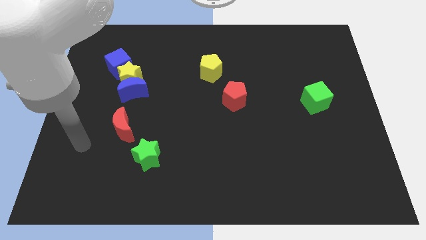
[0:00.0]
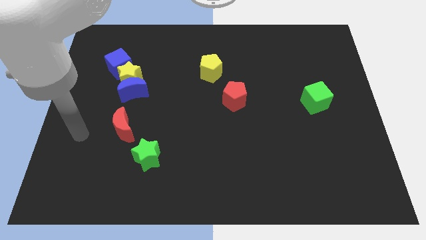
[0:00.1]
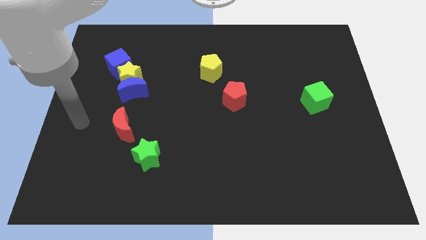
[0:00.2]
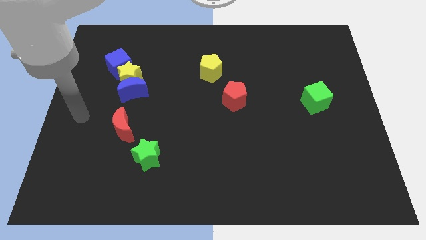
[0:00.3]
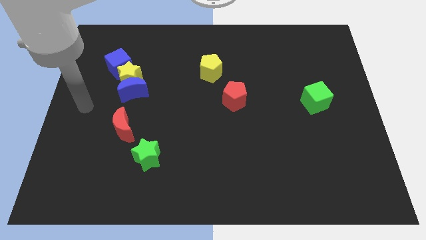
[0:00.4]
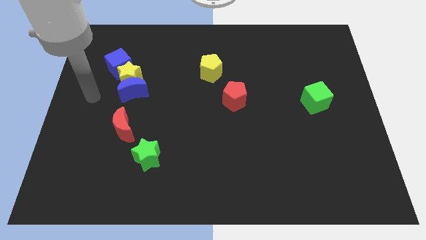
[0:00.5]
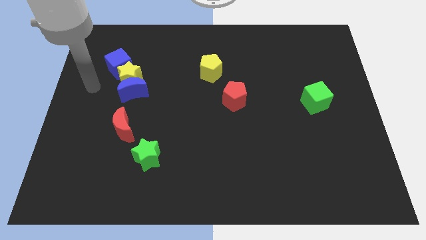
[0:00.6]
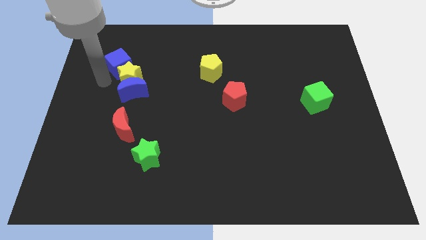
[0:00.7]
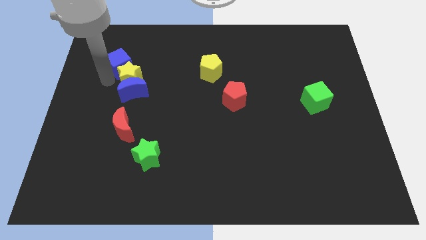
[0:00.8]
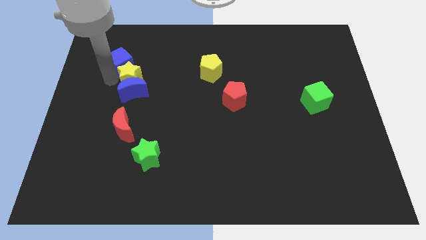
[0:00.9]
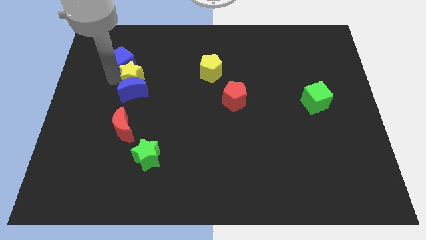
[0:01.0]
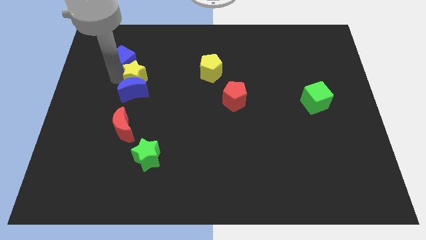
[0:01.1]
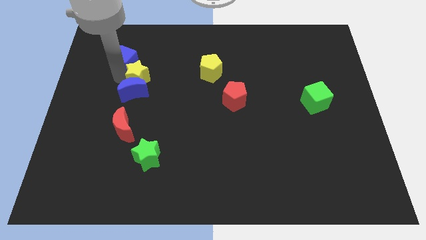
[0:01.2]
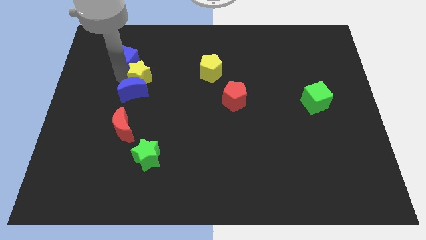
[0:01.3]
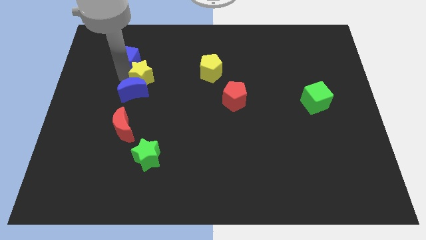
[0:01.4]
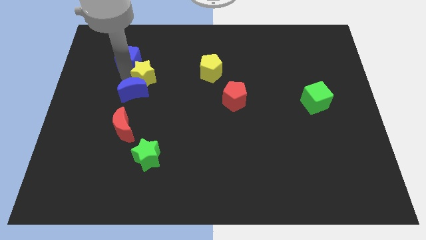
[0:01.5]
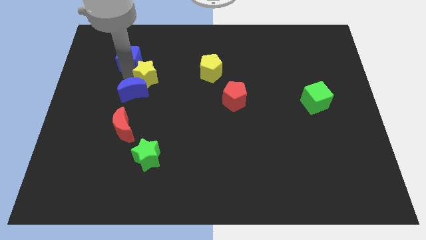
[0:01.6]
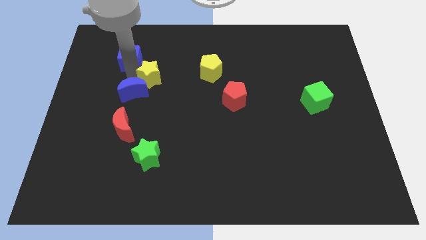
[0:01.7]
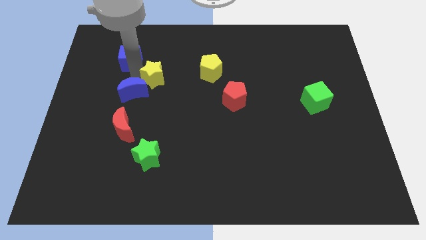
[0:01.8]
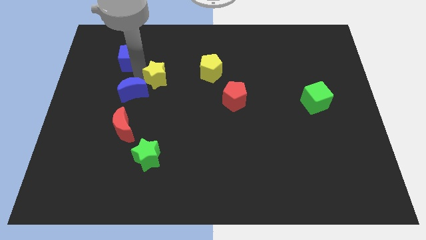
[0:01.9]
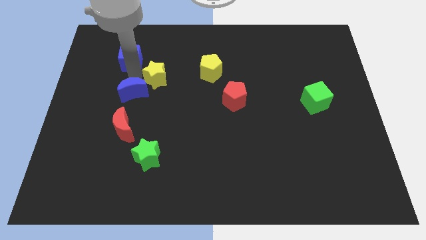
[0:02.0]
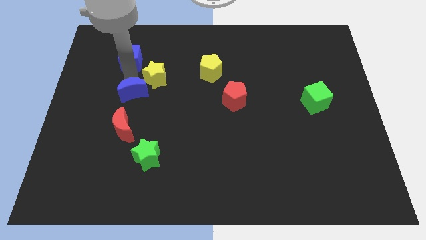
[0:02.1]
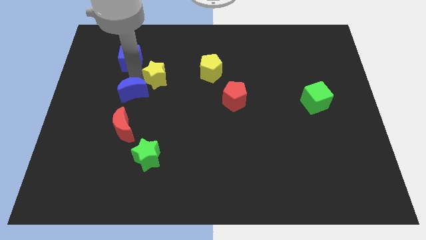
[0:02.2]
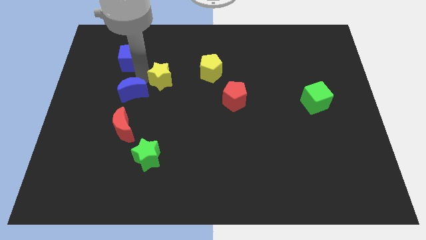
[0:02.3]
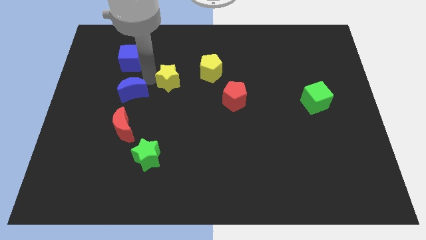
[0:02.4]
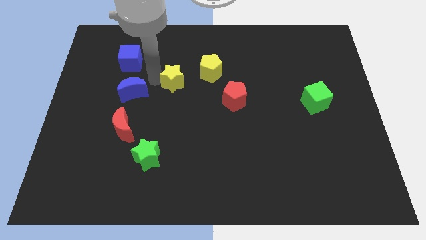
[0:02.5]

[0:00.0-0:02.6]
separate the yellow star from the blue moon and blue cube

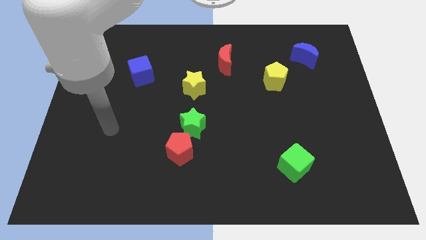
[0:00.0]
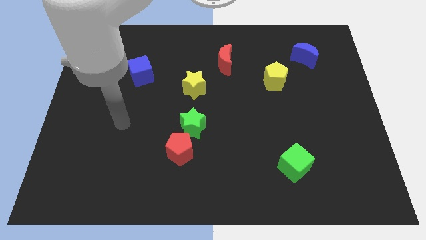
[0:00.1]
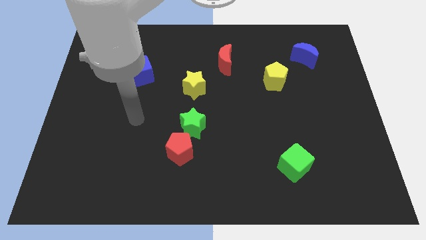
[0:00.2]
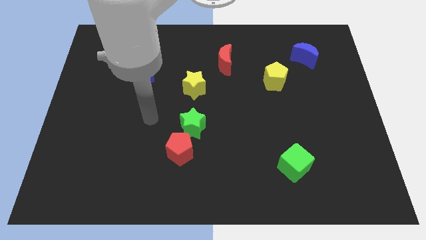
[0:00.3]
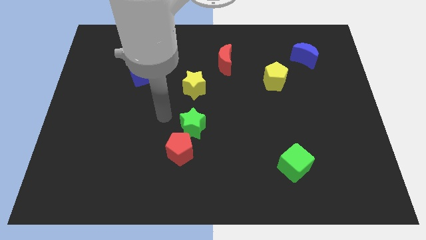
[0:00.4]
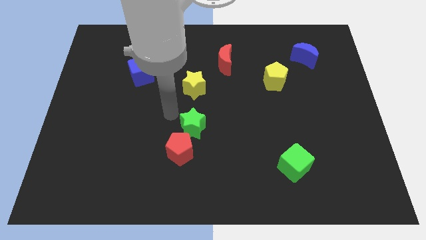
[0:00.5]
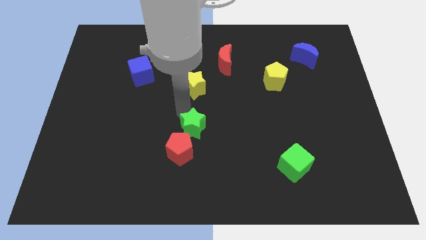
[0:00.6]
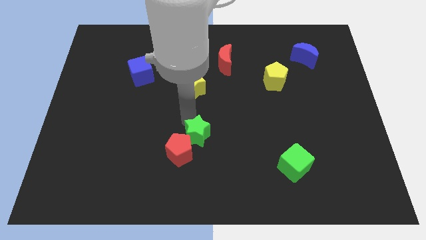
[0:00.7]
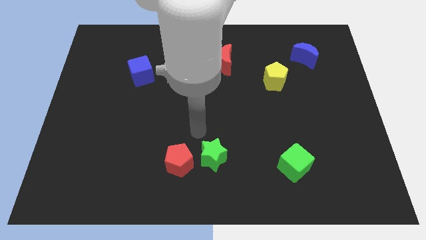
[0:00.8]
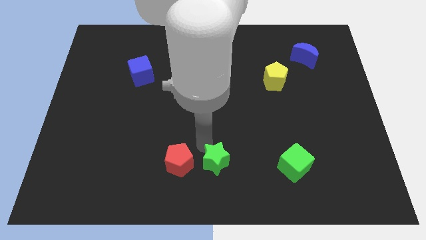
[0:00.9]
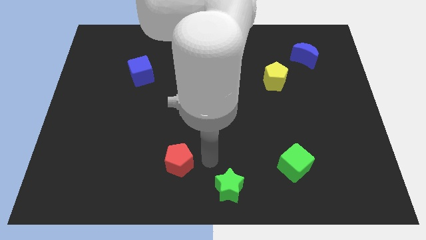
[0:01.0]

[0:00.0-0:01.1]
separate the red pentagon from the green star

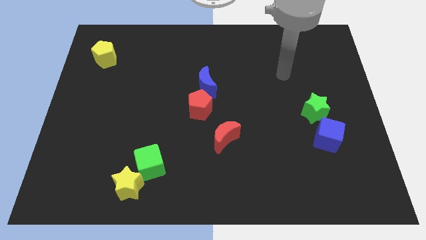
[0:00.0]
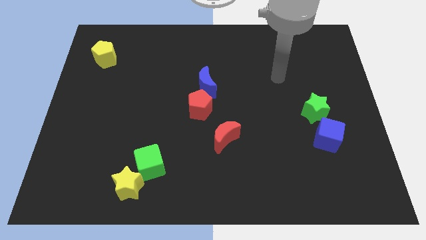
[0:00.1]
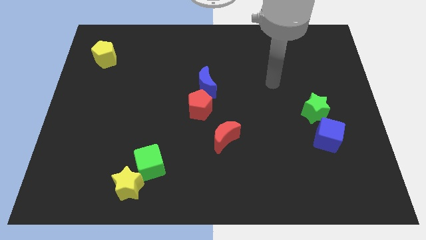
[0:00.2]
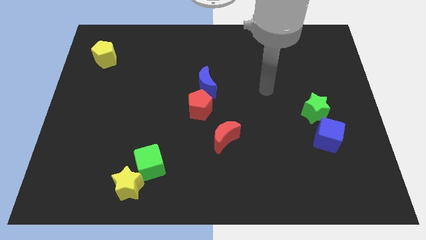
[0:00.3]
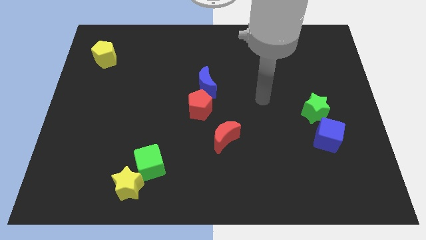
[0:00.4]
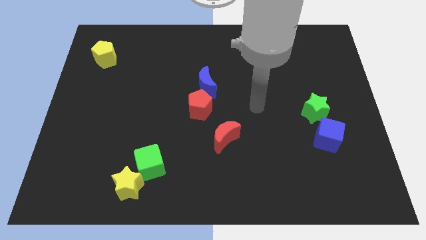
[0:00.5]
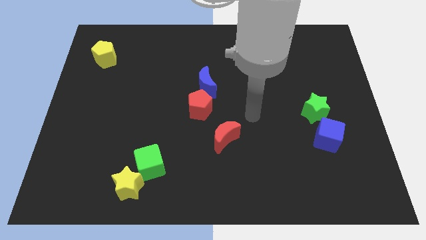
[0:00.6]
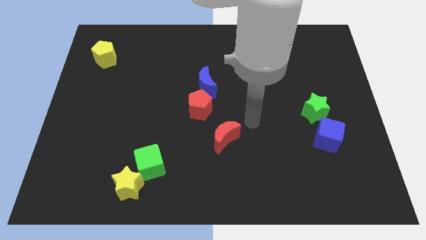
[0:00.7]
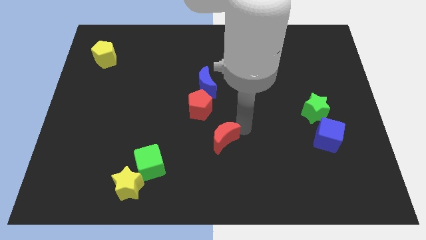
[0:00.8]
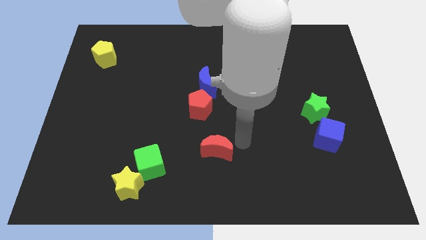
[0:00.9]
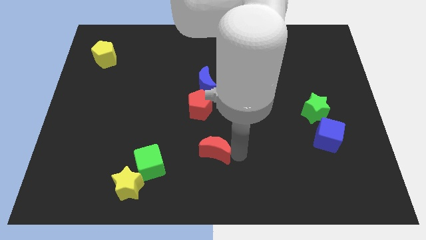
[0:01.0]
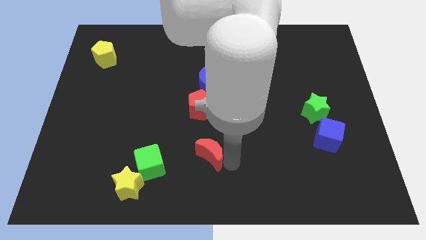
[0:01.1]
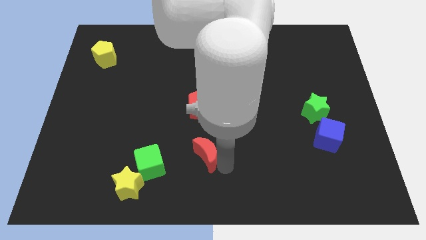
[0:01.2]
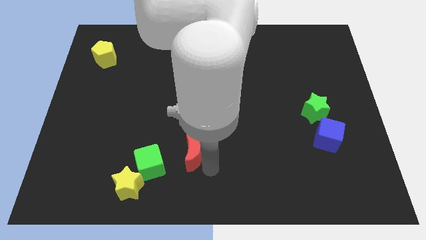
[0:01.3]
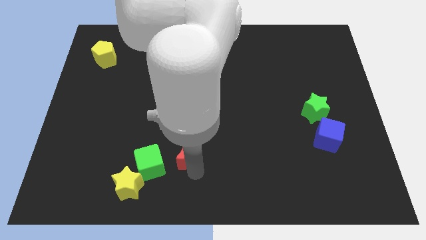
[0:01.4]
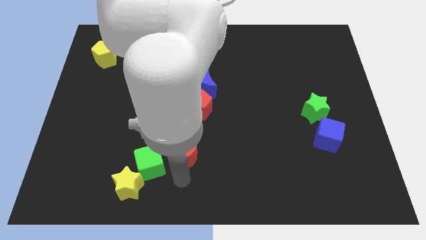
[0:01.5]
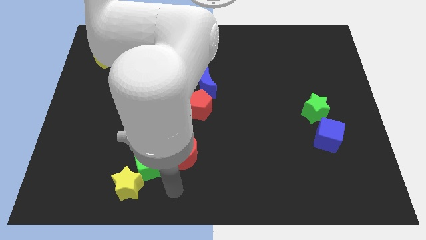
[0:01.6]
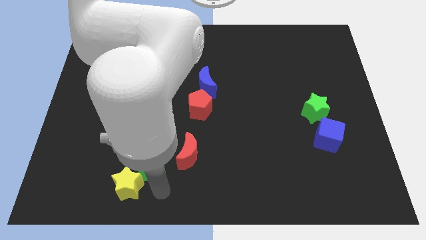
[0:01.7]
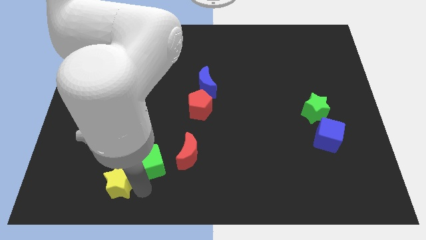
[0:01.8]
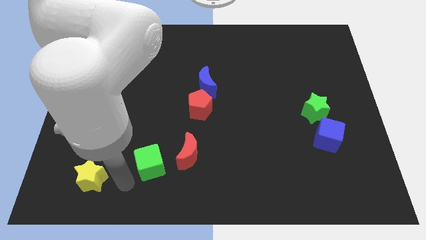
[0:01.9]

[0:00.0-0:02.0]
move the green cube away from the yellow star

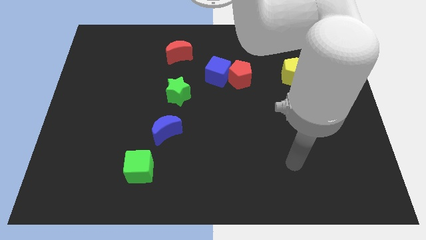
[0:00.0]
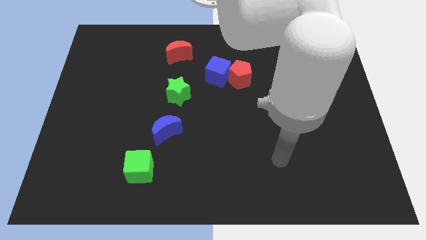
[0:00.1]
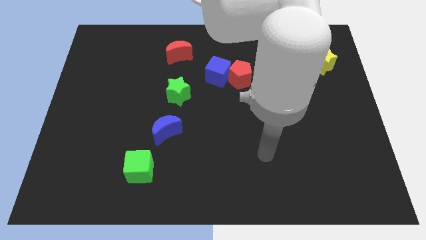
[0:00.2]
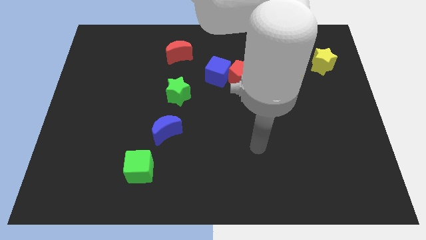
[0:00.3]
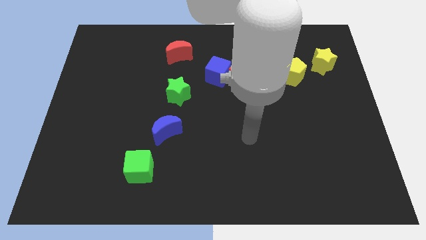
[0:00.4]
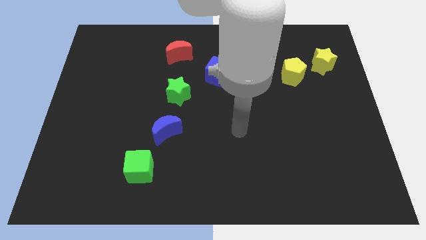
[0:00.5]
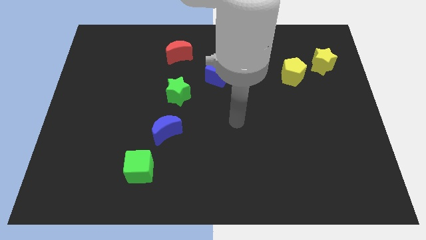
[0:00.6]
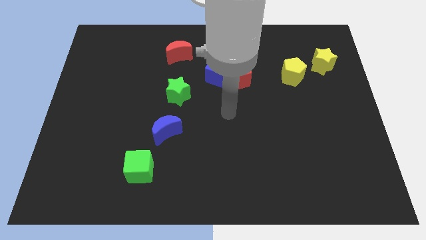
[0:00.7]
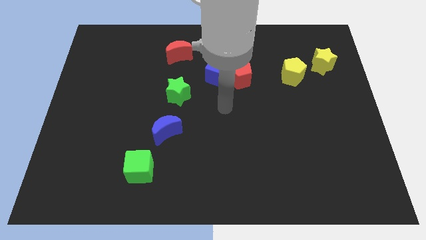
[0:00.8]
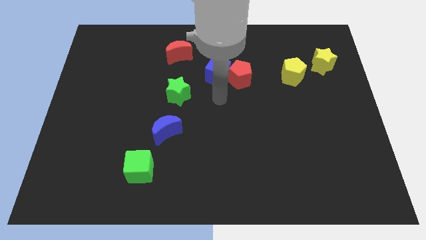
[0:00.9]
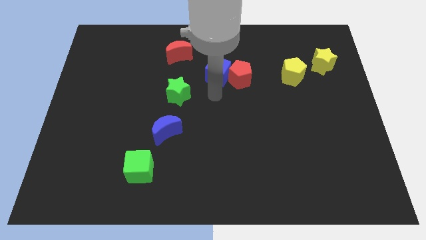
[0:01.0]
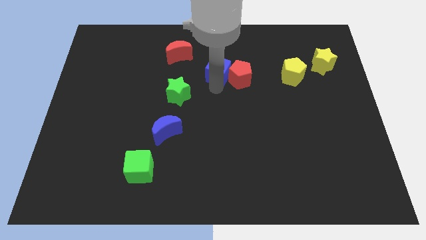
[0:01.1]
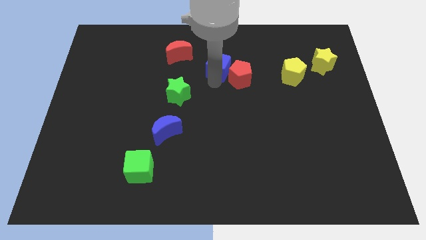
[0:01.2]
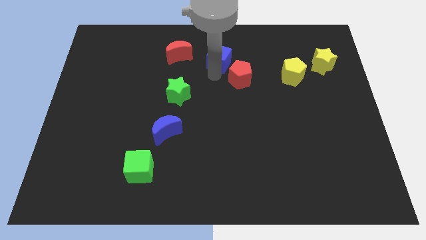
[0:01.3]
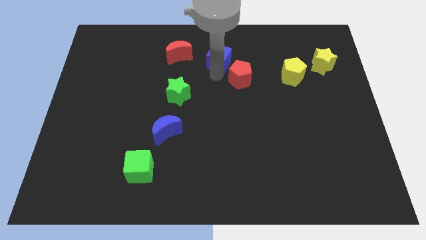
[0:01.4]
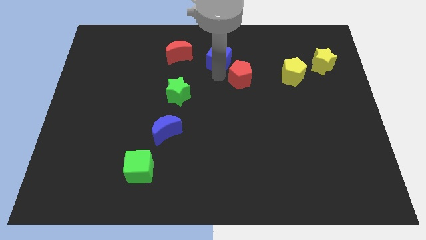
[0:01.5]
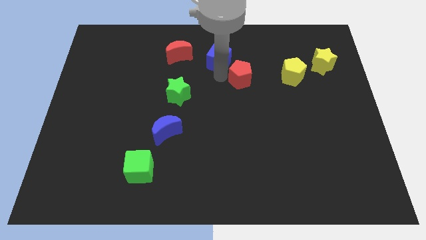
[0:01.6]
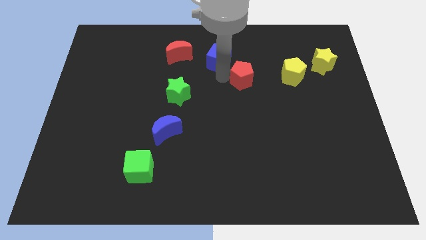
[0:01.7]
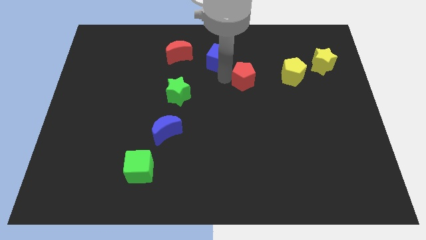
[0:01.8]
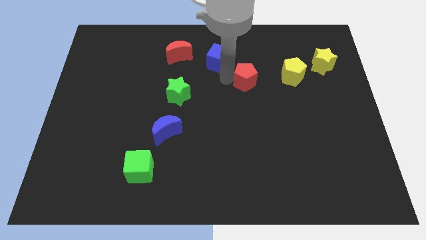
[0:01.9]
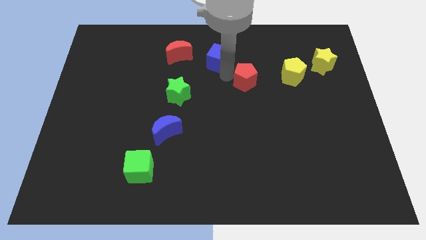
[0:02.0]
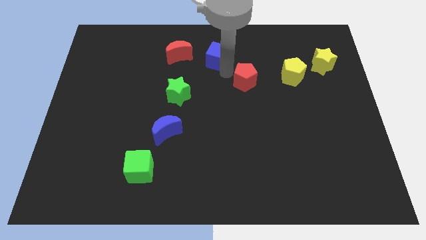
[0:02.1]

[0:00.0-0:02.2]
separate the red pentagon from the blue cube

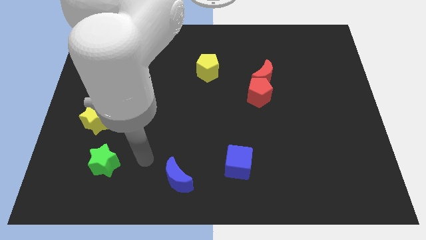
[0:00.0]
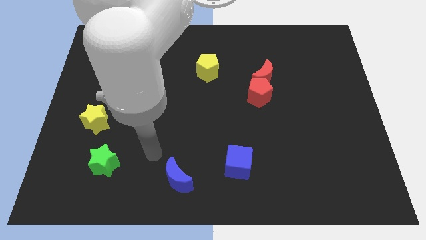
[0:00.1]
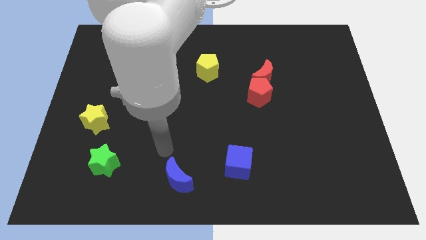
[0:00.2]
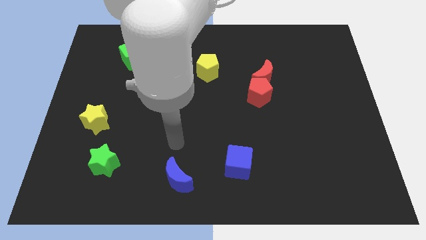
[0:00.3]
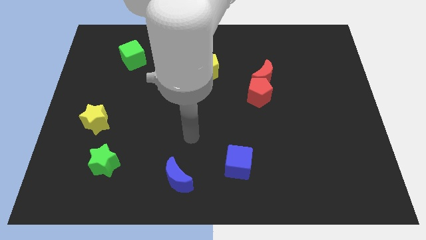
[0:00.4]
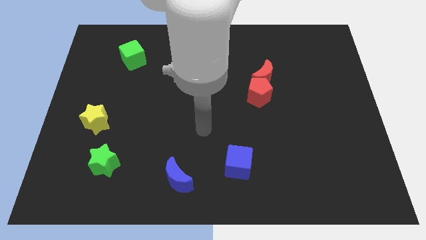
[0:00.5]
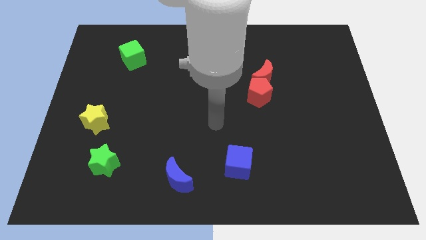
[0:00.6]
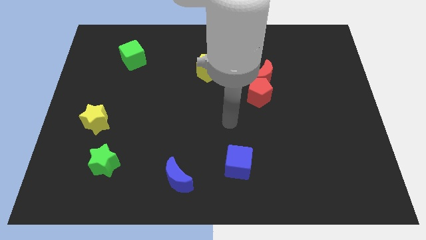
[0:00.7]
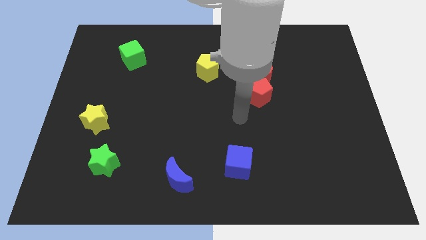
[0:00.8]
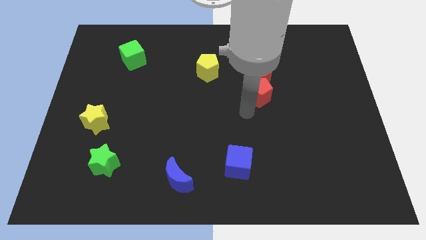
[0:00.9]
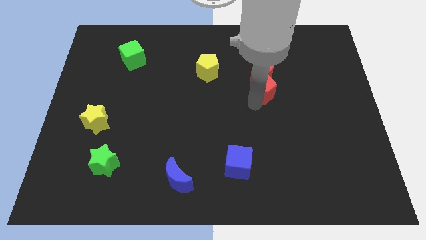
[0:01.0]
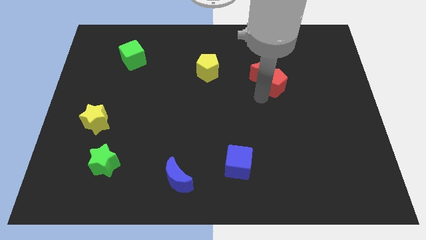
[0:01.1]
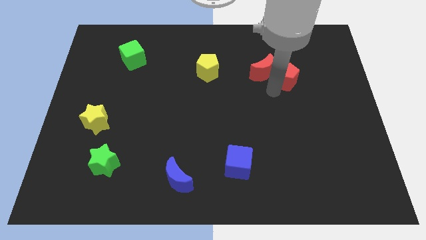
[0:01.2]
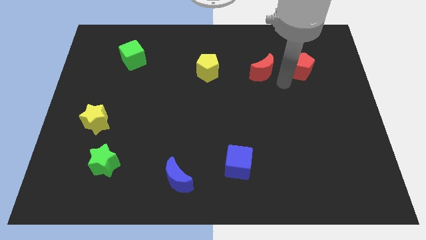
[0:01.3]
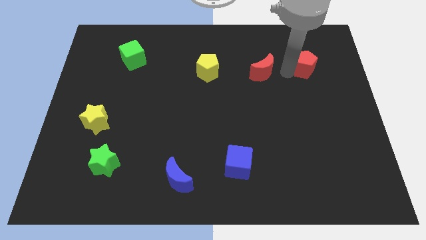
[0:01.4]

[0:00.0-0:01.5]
move the red moon away from the red pentagon
